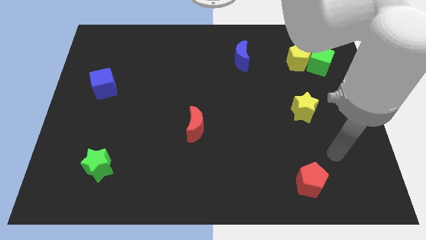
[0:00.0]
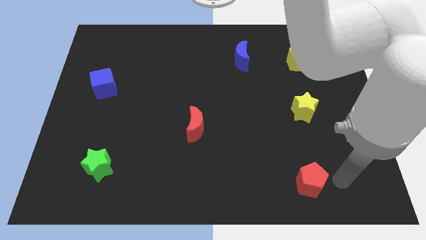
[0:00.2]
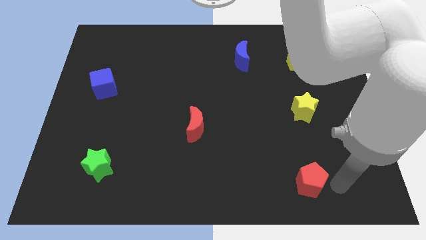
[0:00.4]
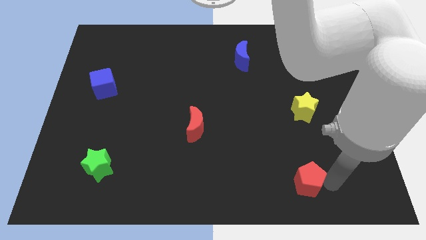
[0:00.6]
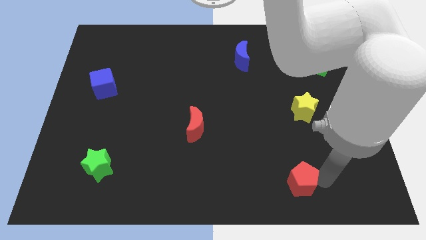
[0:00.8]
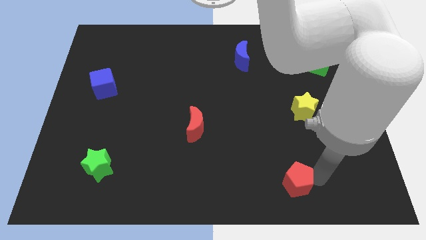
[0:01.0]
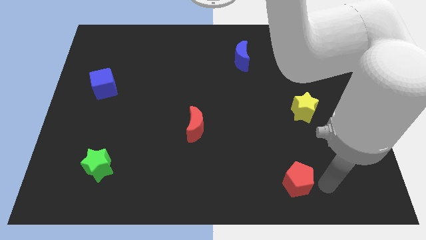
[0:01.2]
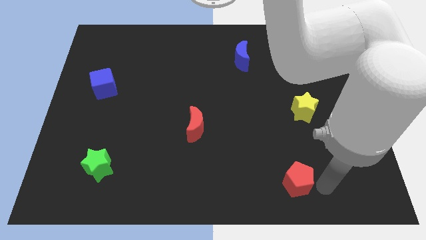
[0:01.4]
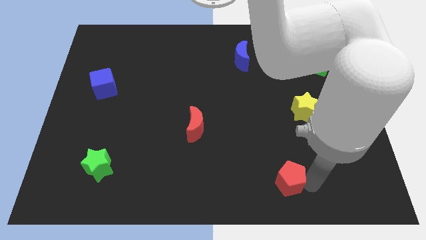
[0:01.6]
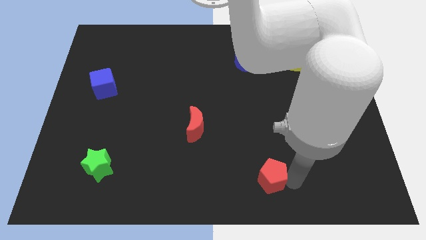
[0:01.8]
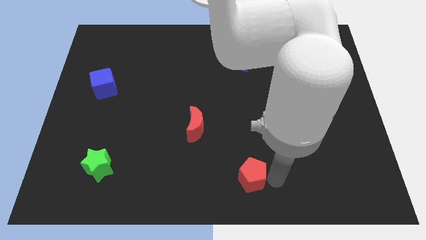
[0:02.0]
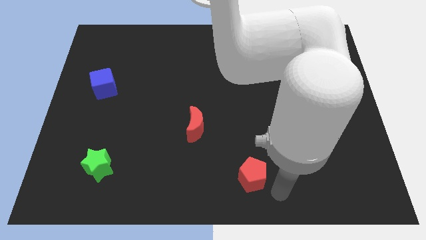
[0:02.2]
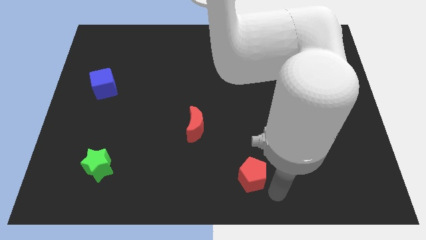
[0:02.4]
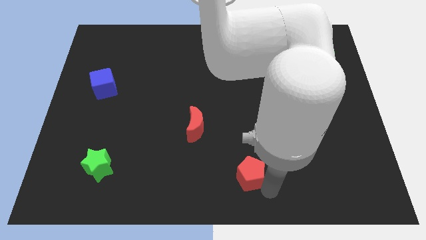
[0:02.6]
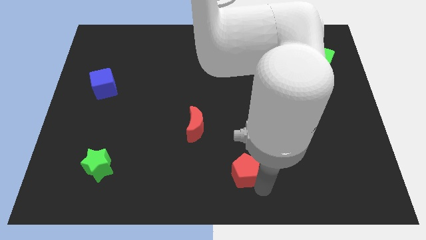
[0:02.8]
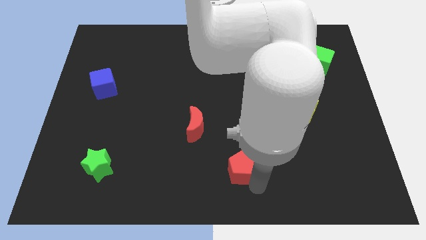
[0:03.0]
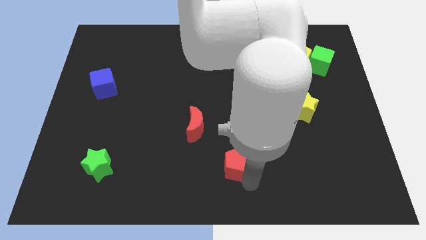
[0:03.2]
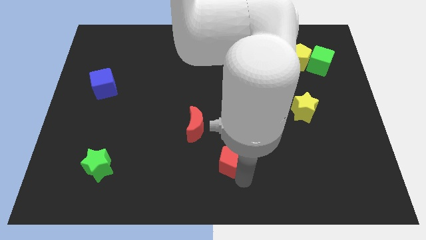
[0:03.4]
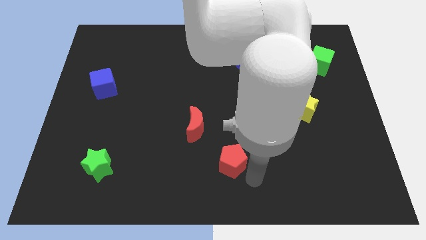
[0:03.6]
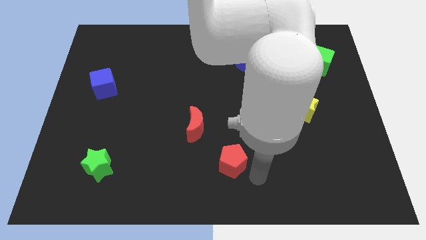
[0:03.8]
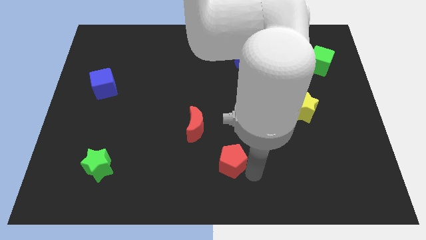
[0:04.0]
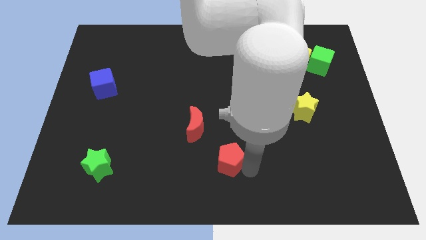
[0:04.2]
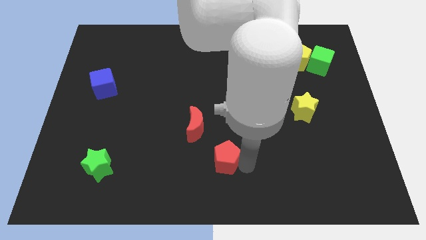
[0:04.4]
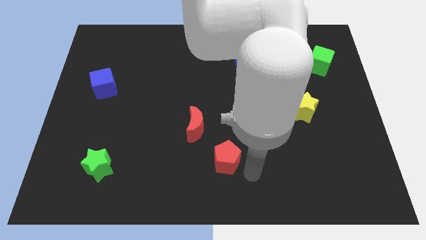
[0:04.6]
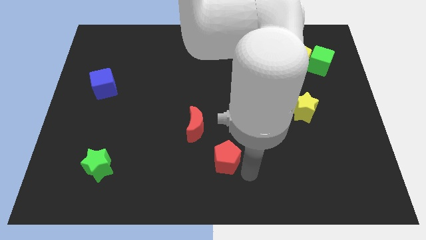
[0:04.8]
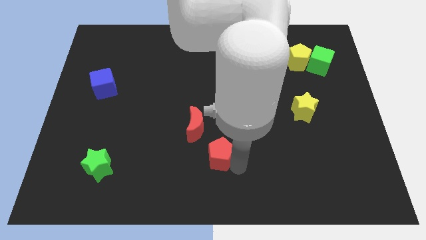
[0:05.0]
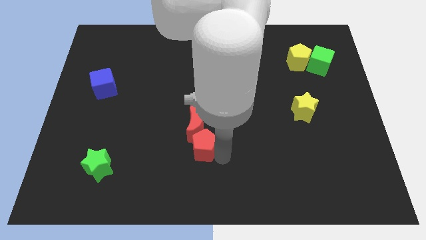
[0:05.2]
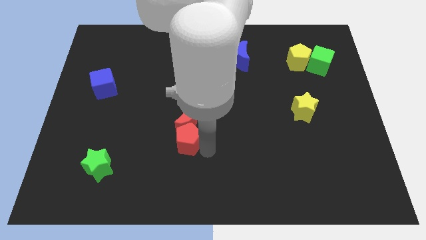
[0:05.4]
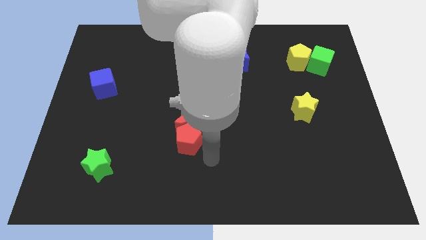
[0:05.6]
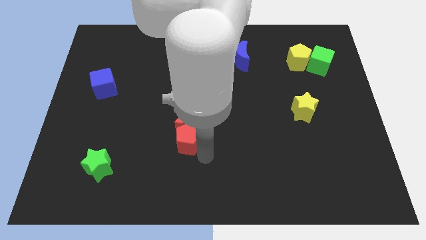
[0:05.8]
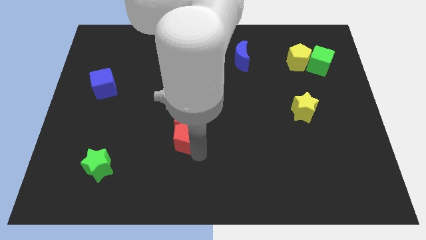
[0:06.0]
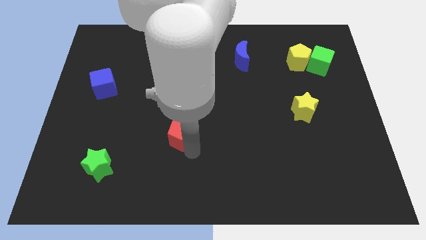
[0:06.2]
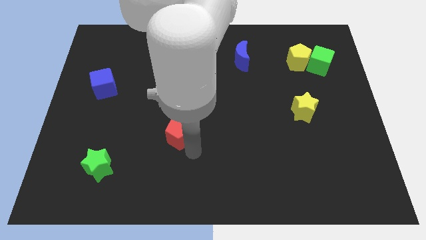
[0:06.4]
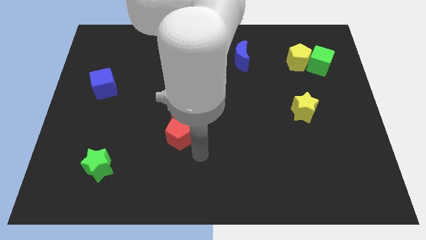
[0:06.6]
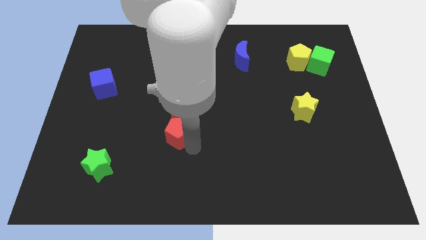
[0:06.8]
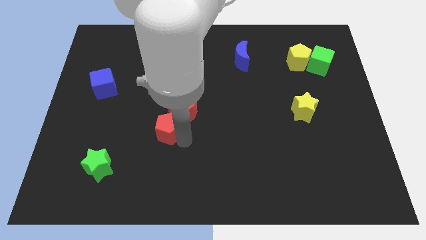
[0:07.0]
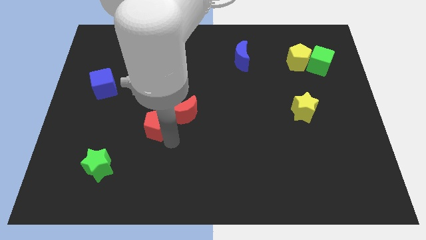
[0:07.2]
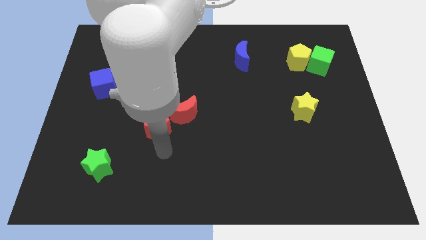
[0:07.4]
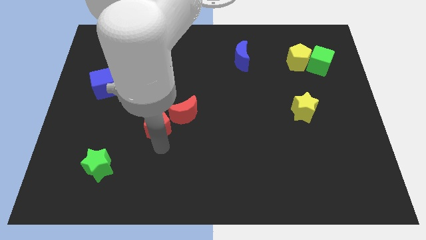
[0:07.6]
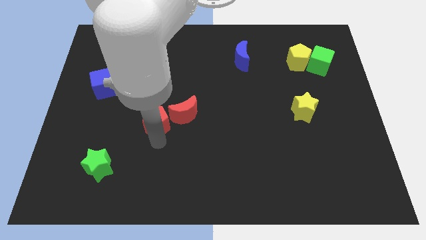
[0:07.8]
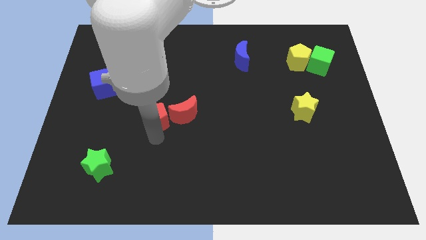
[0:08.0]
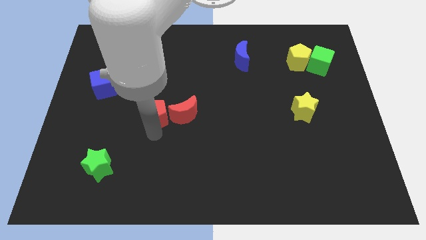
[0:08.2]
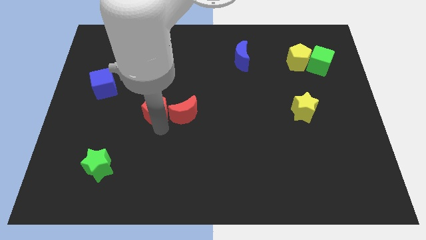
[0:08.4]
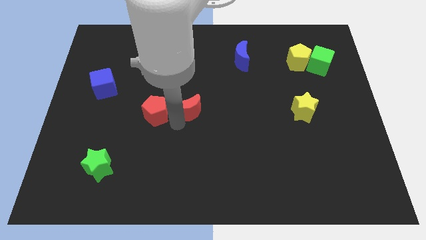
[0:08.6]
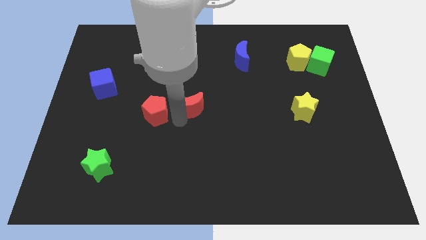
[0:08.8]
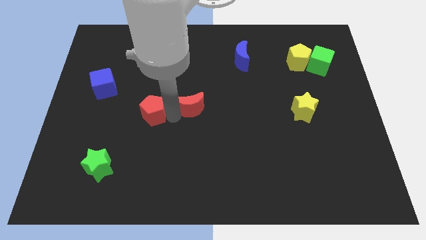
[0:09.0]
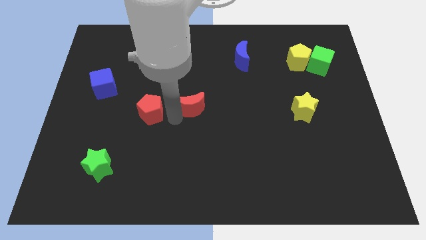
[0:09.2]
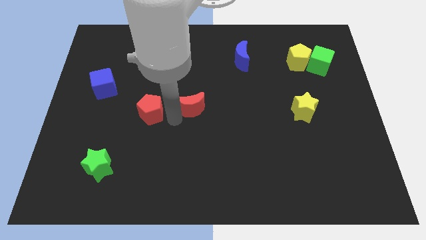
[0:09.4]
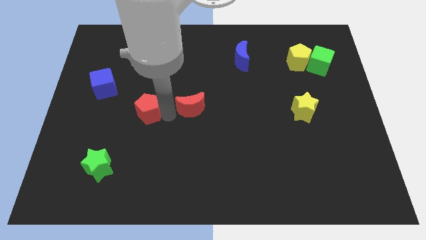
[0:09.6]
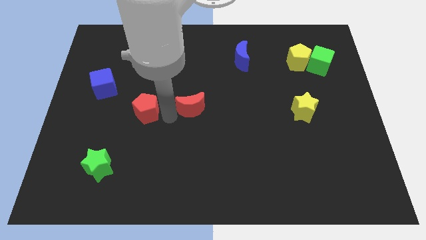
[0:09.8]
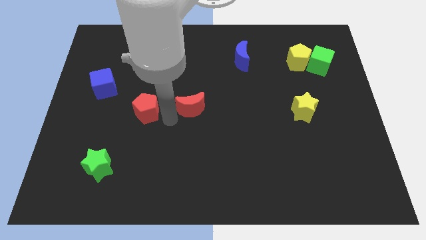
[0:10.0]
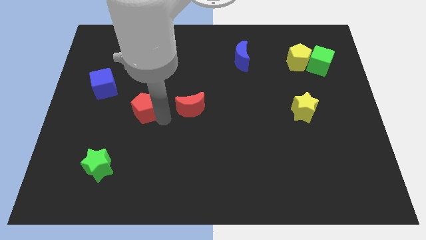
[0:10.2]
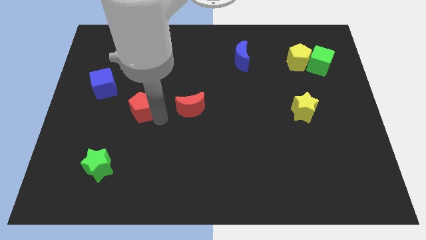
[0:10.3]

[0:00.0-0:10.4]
put the red pentagon diagonally down and to the right of the blue cube

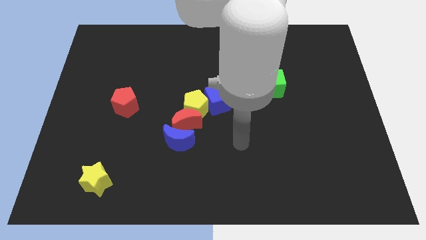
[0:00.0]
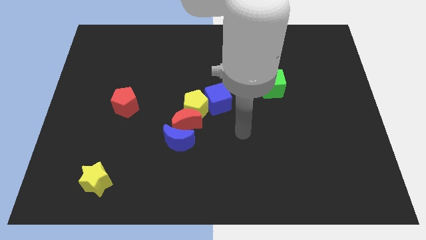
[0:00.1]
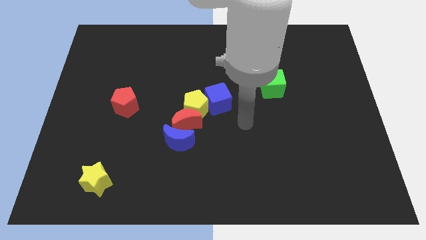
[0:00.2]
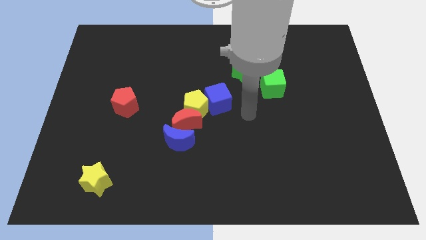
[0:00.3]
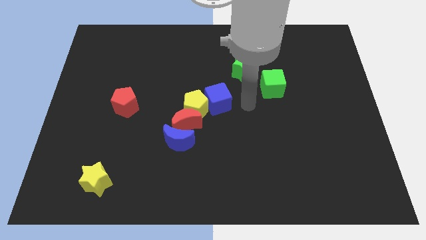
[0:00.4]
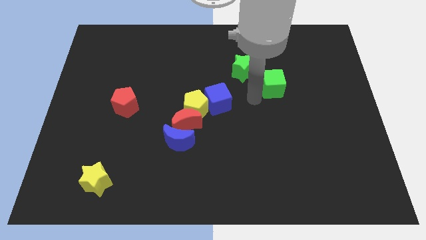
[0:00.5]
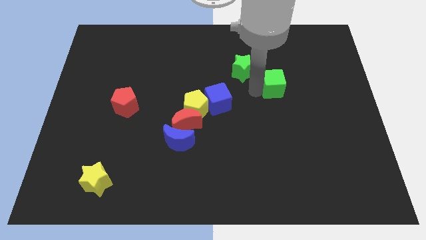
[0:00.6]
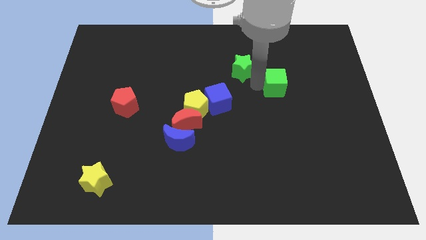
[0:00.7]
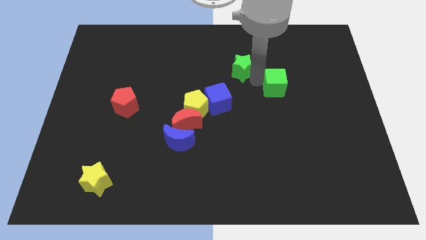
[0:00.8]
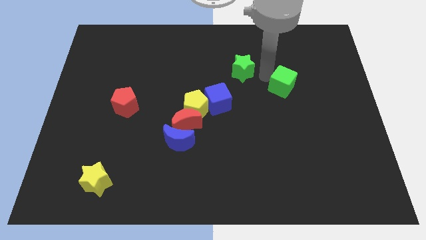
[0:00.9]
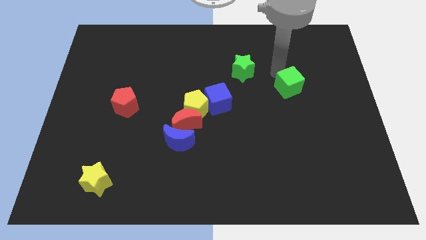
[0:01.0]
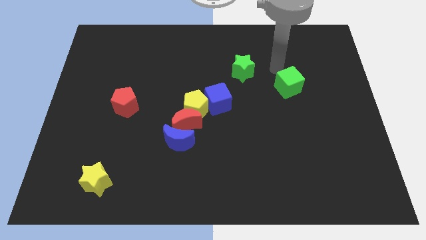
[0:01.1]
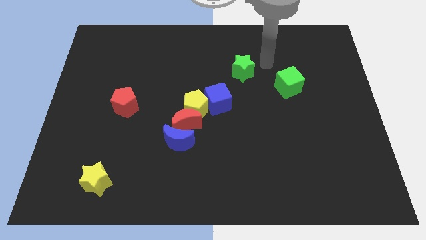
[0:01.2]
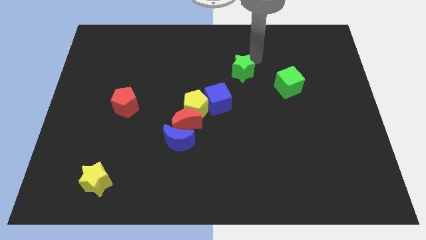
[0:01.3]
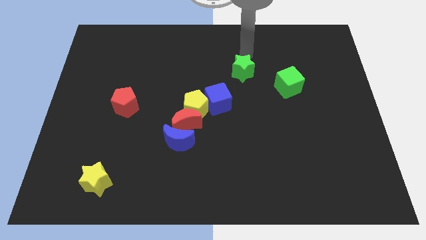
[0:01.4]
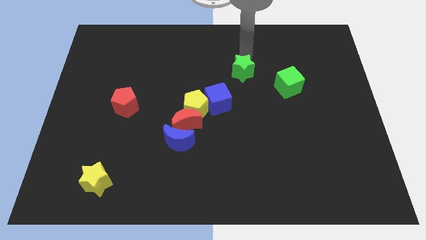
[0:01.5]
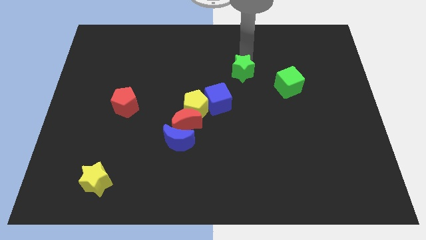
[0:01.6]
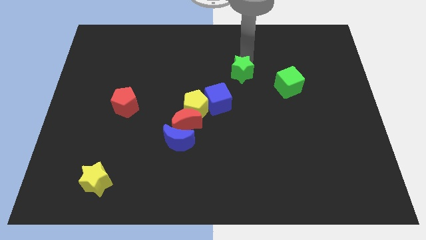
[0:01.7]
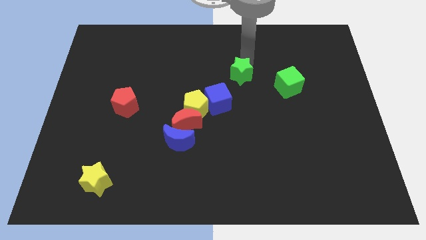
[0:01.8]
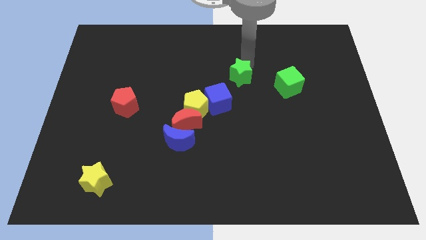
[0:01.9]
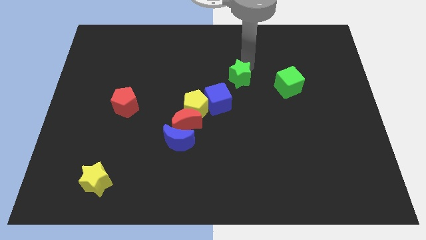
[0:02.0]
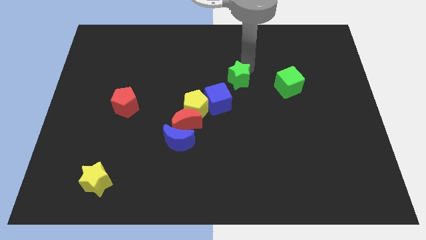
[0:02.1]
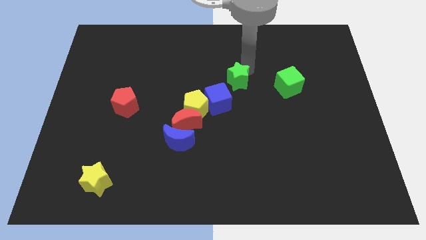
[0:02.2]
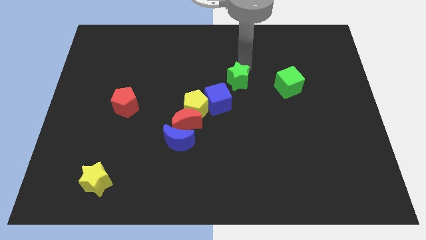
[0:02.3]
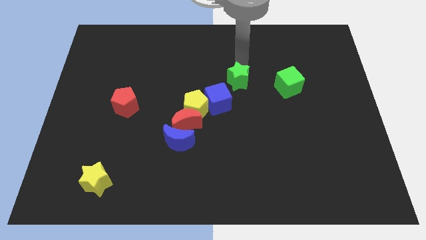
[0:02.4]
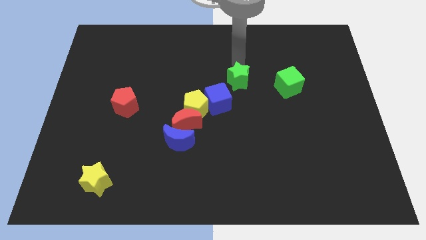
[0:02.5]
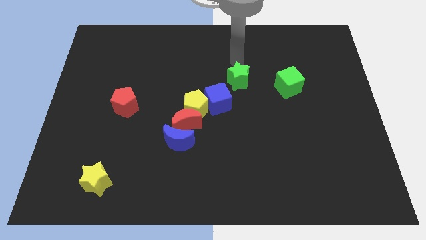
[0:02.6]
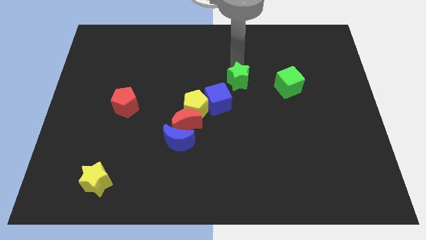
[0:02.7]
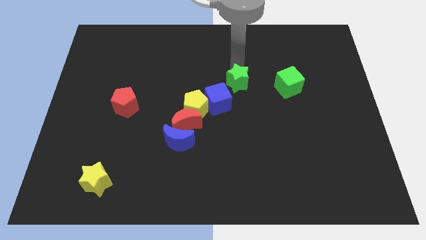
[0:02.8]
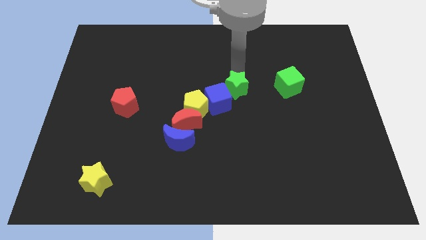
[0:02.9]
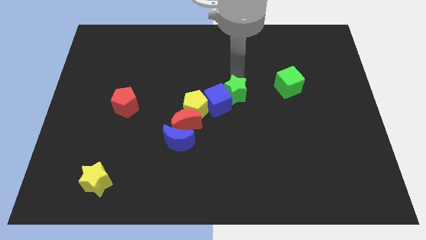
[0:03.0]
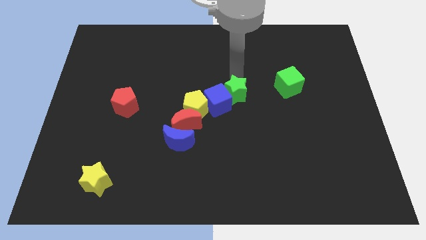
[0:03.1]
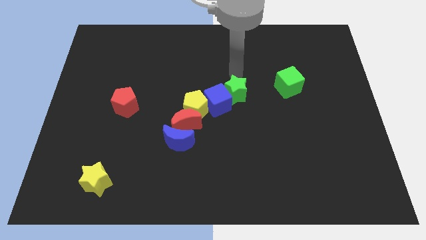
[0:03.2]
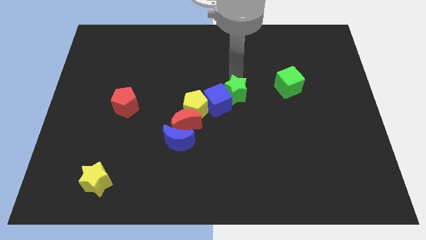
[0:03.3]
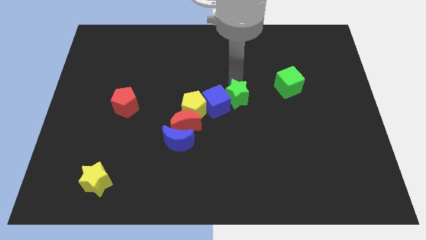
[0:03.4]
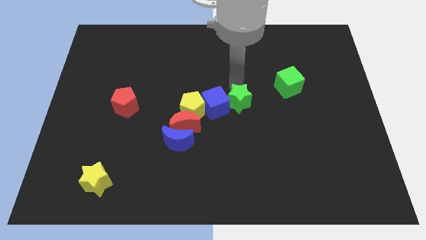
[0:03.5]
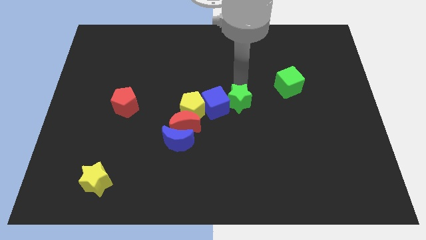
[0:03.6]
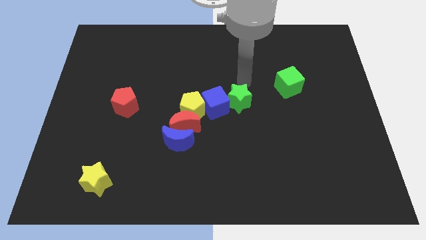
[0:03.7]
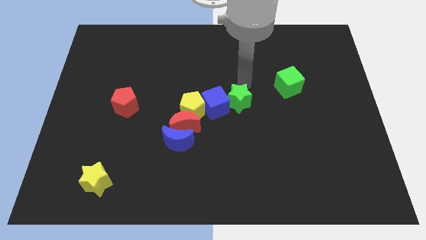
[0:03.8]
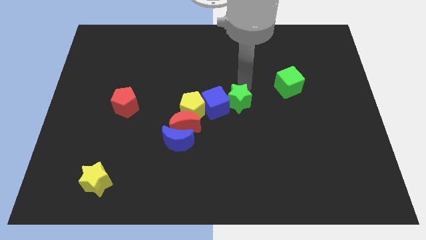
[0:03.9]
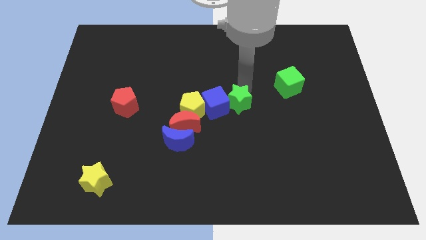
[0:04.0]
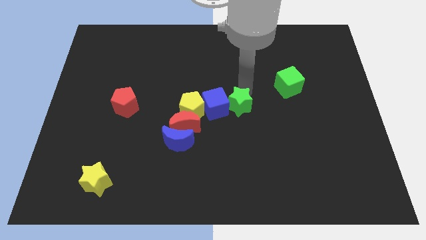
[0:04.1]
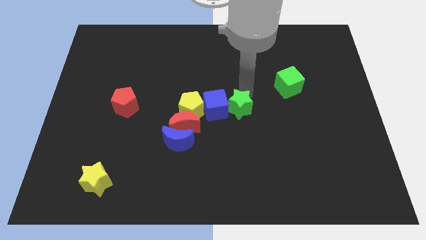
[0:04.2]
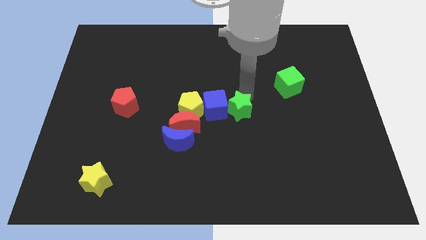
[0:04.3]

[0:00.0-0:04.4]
move the green star just right of the red moon
